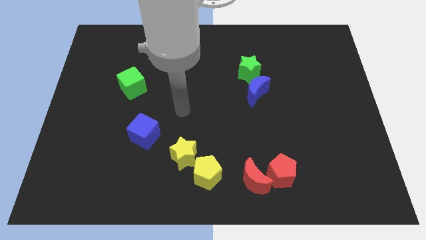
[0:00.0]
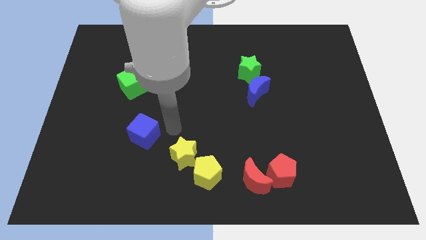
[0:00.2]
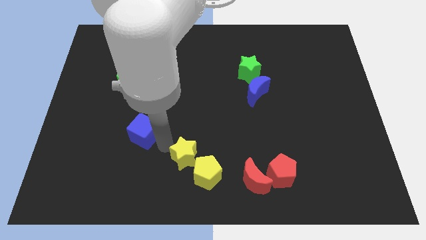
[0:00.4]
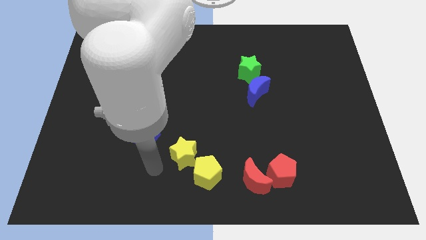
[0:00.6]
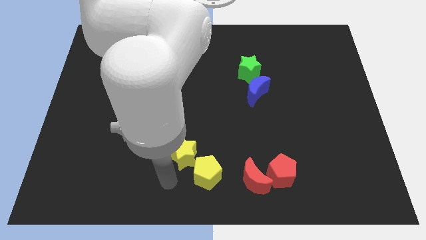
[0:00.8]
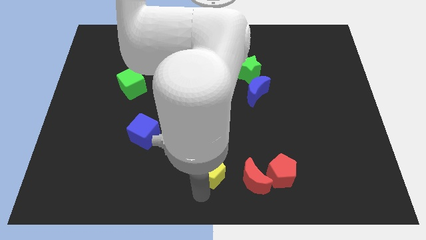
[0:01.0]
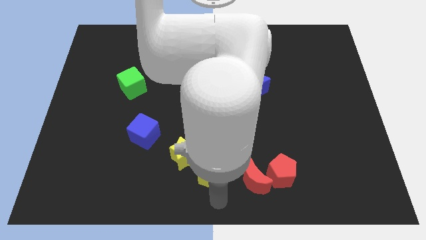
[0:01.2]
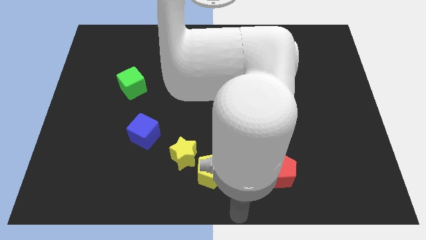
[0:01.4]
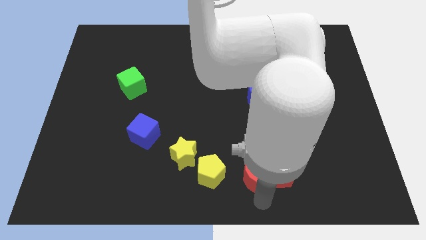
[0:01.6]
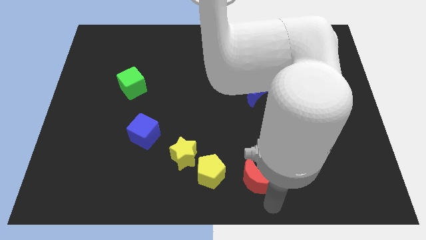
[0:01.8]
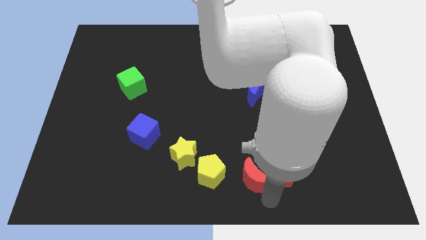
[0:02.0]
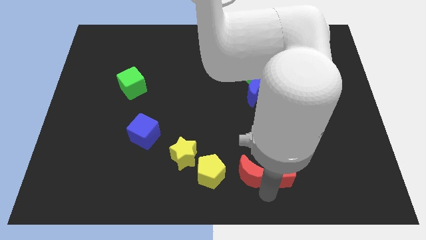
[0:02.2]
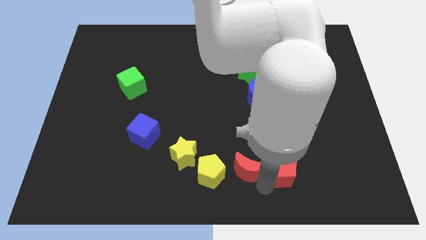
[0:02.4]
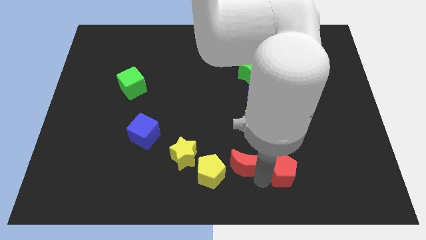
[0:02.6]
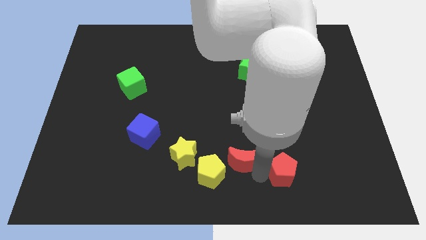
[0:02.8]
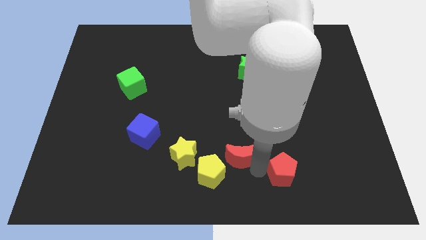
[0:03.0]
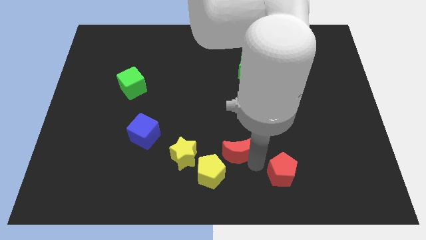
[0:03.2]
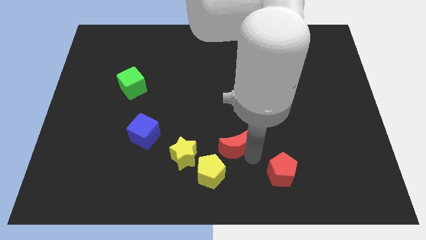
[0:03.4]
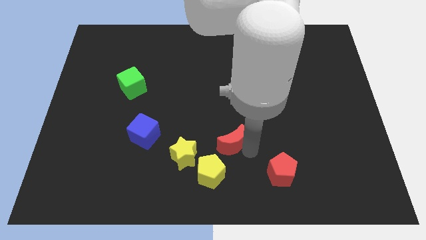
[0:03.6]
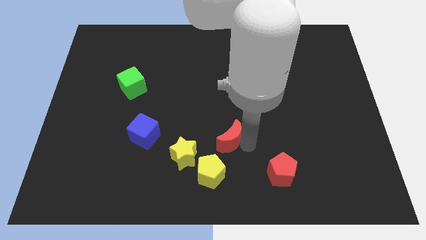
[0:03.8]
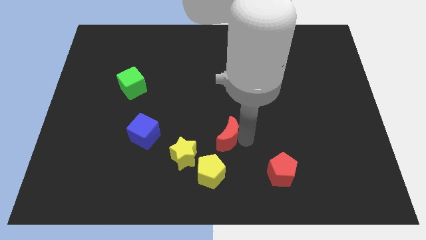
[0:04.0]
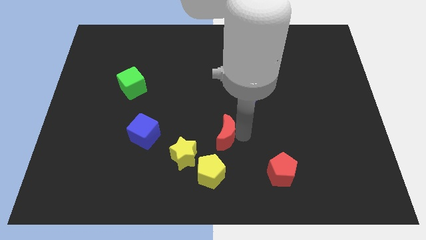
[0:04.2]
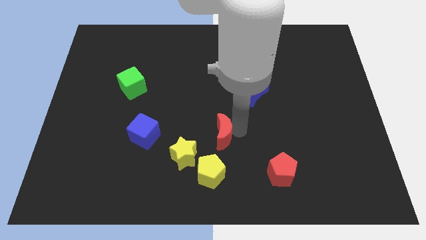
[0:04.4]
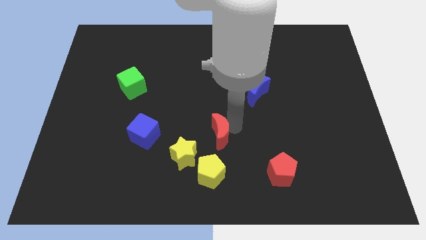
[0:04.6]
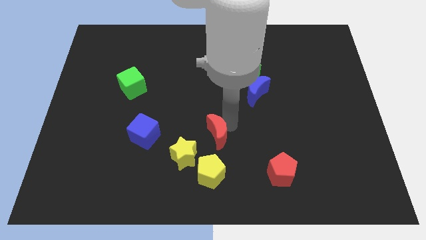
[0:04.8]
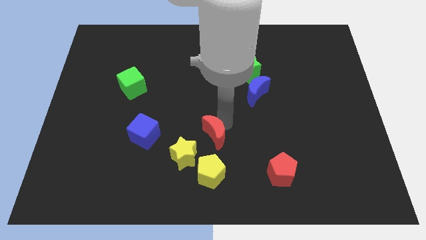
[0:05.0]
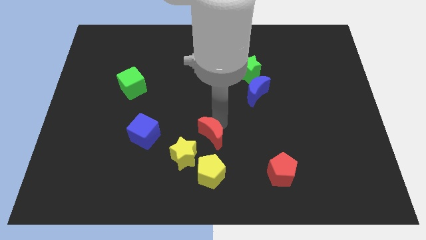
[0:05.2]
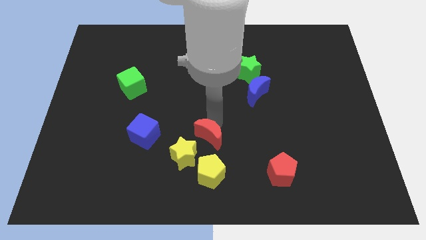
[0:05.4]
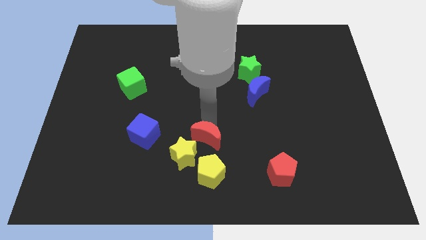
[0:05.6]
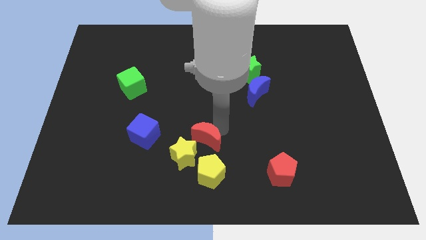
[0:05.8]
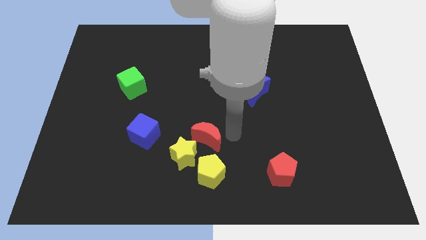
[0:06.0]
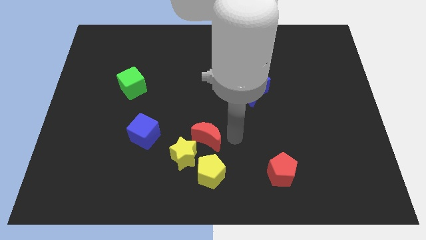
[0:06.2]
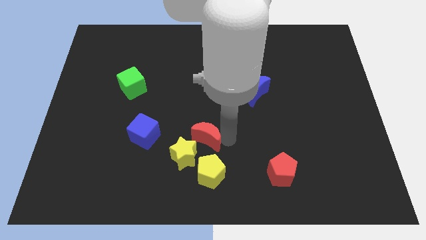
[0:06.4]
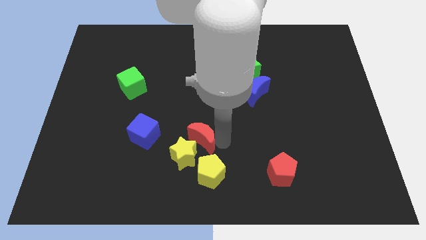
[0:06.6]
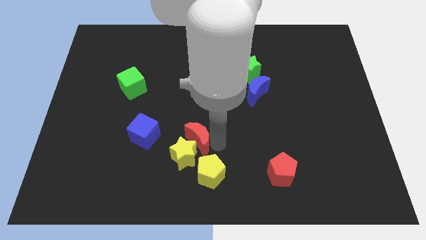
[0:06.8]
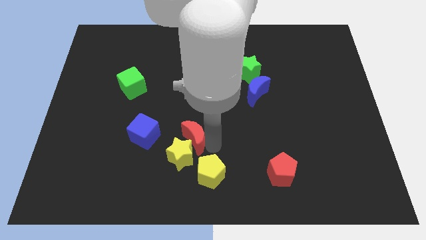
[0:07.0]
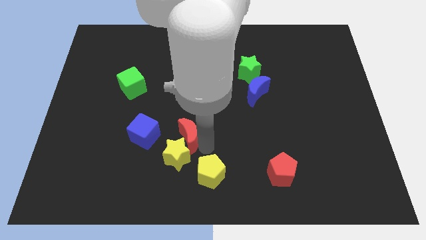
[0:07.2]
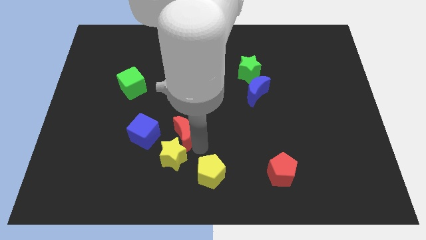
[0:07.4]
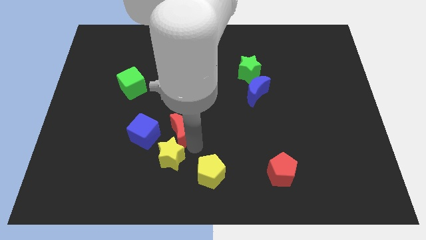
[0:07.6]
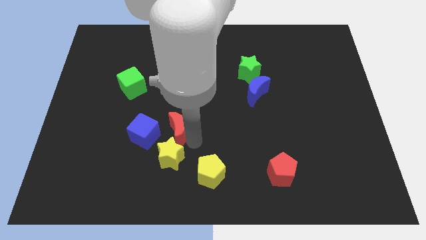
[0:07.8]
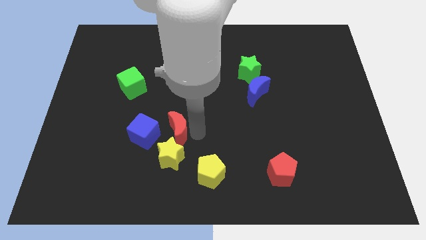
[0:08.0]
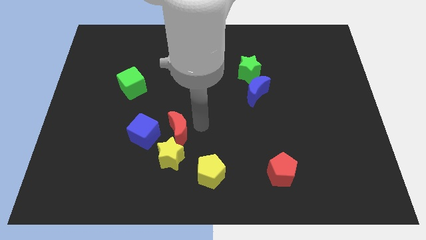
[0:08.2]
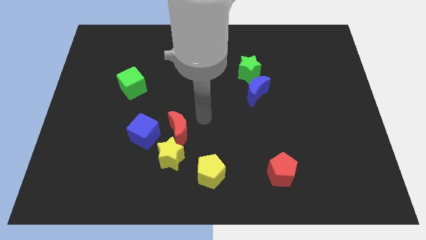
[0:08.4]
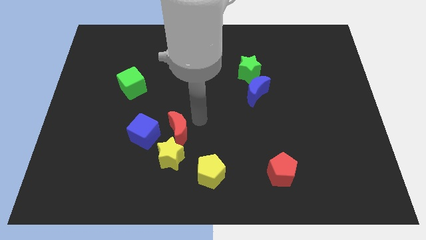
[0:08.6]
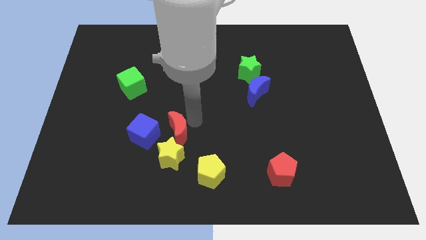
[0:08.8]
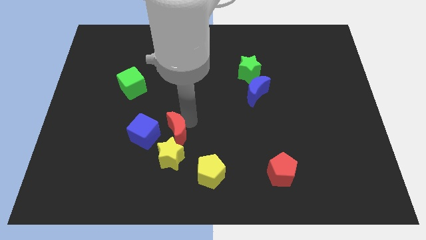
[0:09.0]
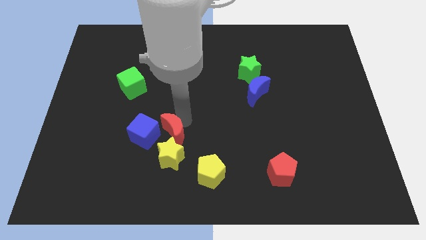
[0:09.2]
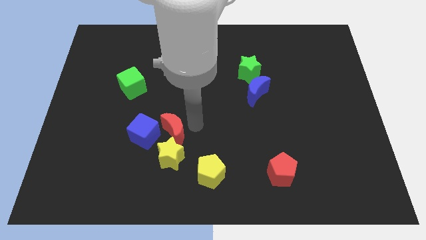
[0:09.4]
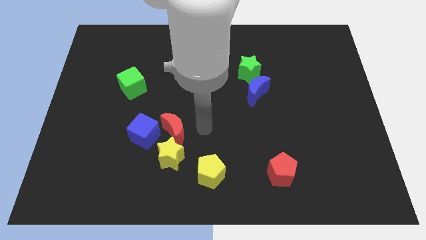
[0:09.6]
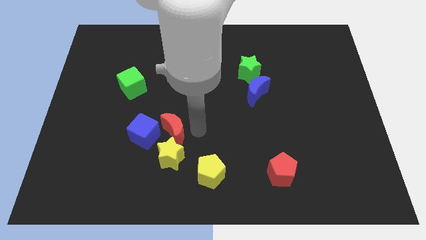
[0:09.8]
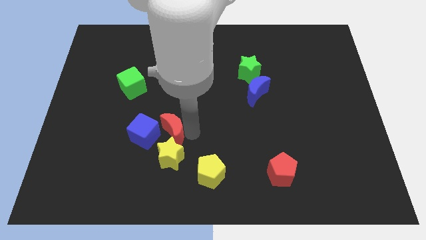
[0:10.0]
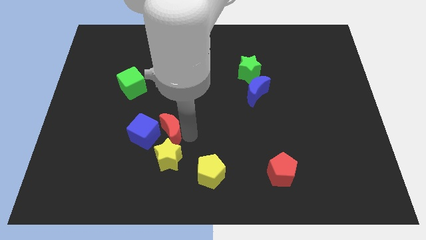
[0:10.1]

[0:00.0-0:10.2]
push the red moon next to the blue cube

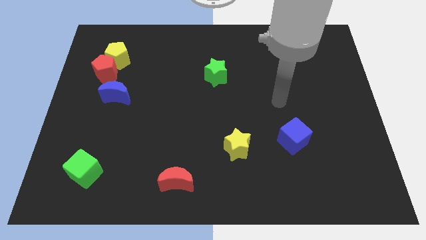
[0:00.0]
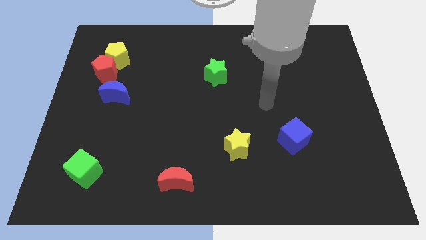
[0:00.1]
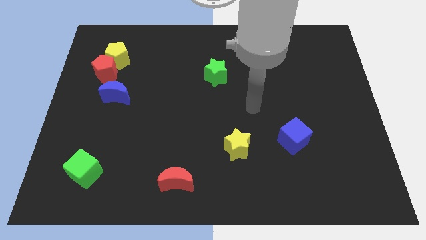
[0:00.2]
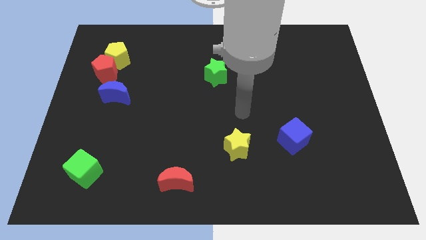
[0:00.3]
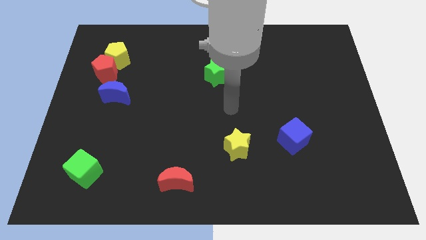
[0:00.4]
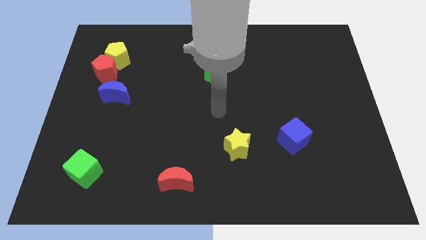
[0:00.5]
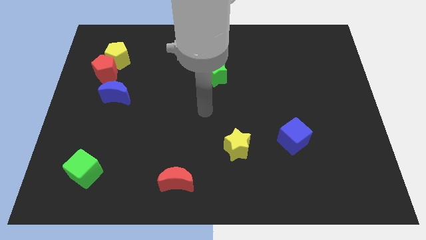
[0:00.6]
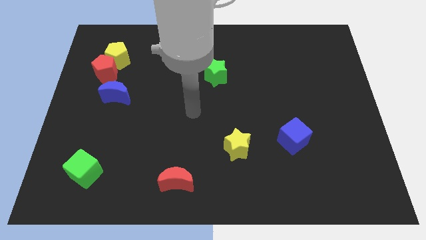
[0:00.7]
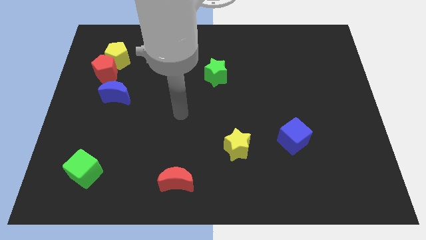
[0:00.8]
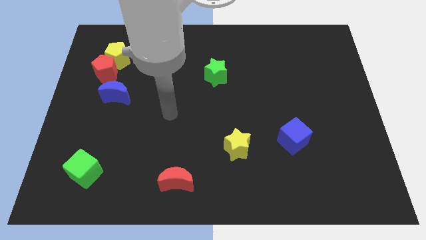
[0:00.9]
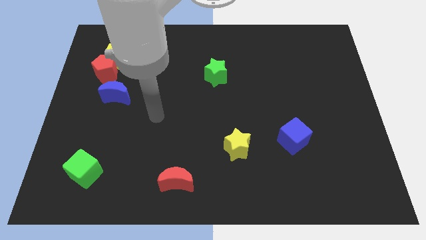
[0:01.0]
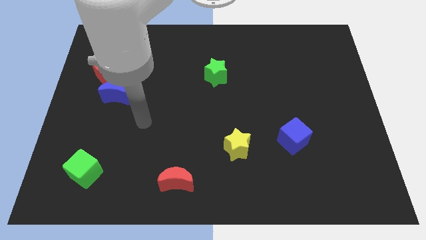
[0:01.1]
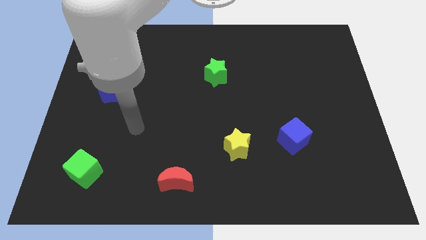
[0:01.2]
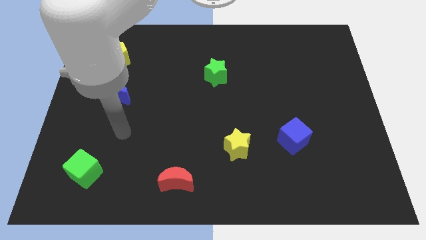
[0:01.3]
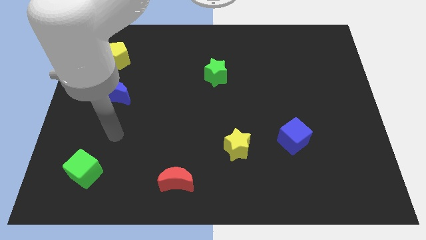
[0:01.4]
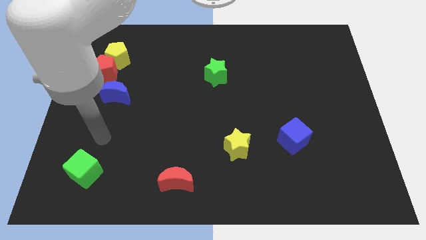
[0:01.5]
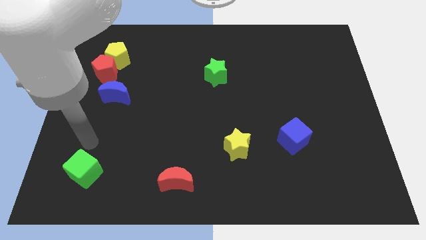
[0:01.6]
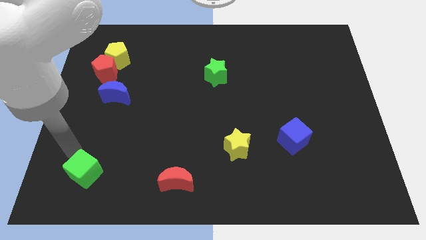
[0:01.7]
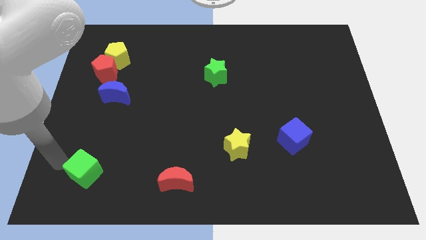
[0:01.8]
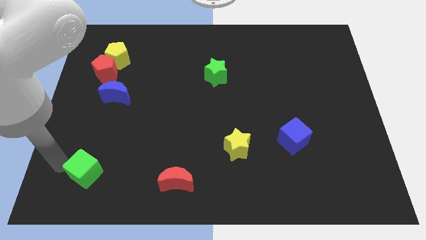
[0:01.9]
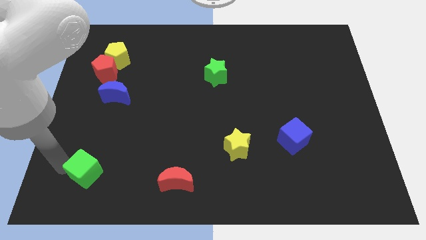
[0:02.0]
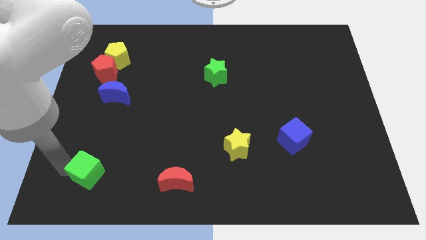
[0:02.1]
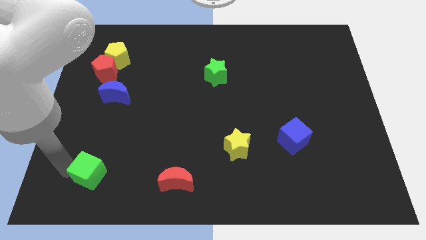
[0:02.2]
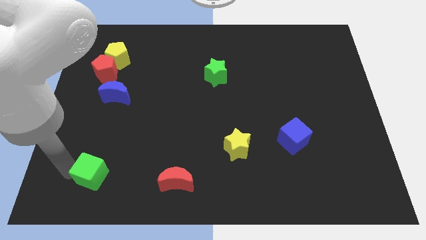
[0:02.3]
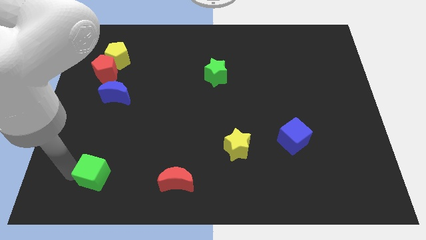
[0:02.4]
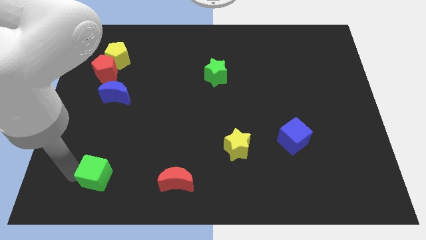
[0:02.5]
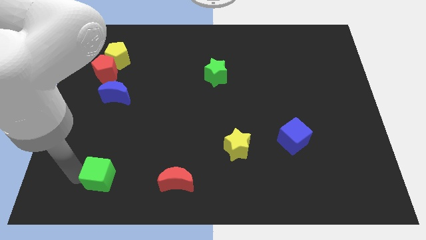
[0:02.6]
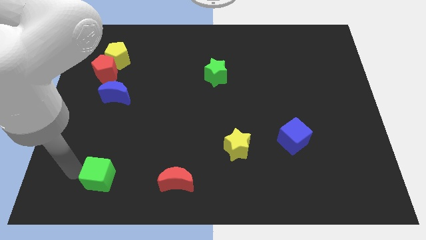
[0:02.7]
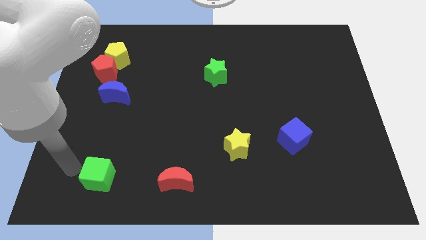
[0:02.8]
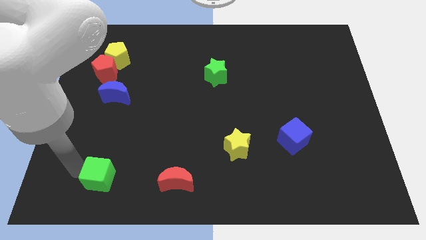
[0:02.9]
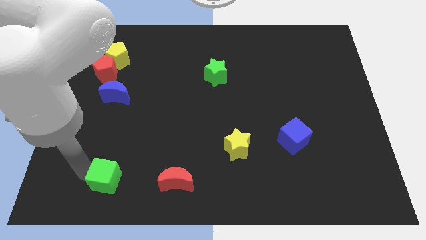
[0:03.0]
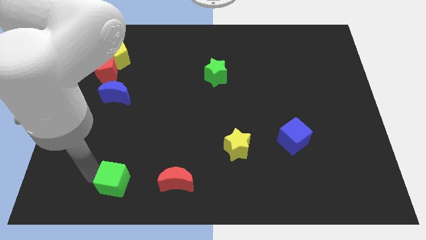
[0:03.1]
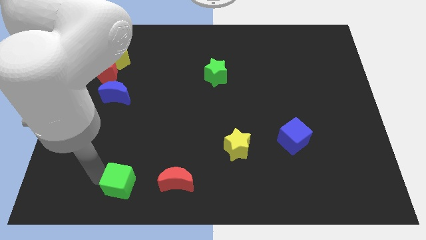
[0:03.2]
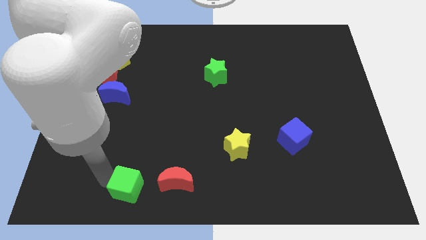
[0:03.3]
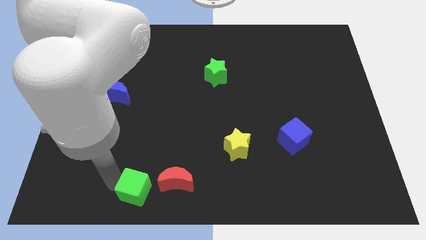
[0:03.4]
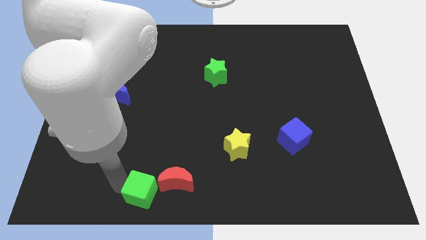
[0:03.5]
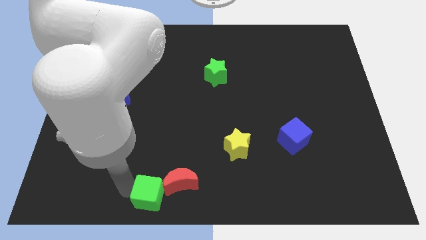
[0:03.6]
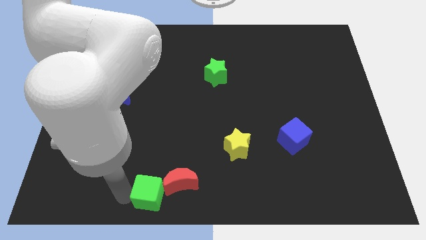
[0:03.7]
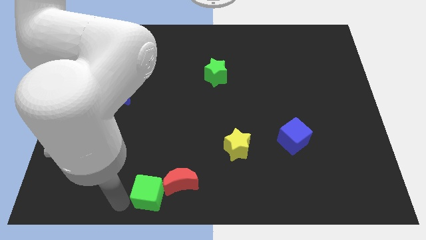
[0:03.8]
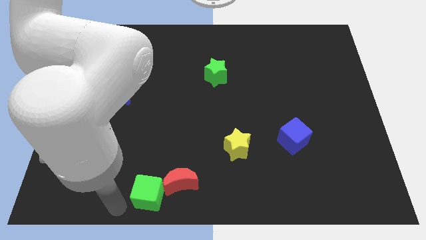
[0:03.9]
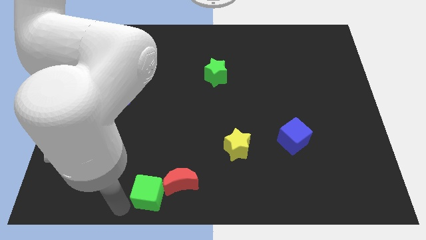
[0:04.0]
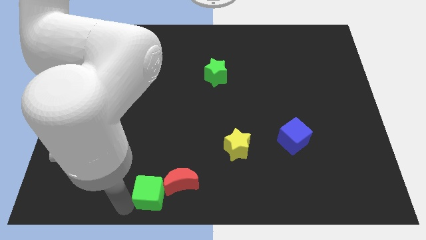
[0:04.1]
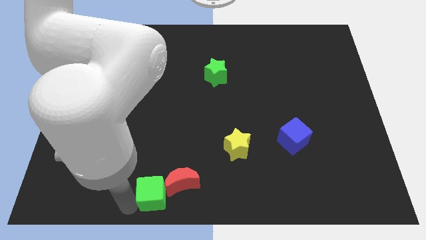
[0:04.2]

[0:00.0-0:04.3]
move the green cube towards the red moon
